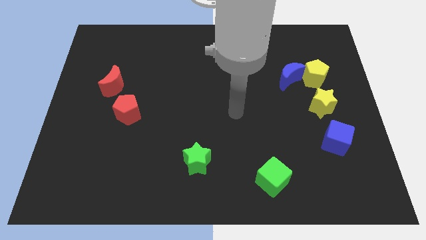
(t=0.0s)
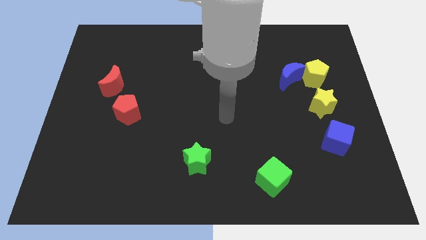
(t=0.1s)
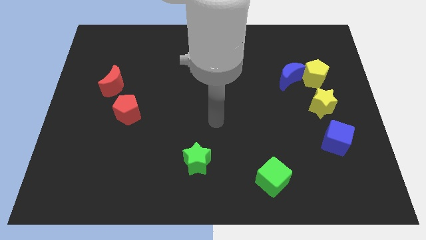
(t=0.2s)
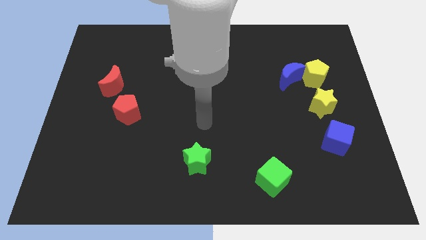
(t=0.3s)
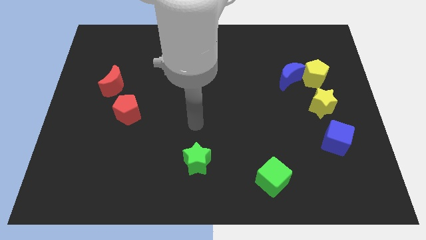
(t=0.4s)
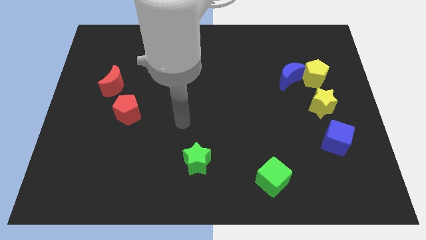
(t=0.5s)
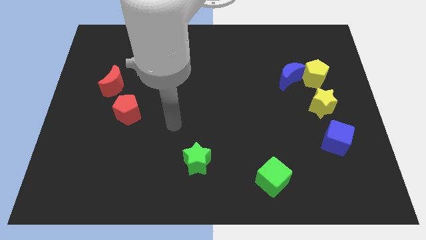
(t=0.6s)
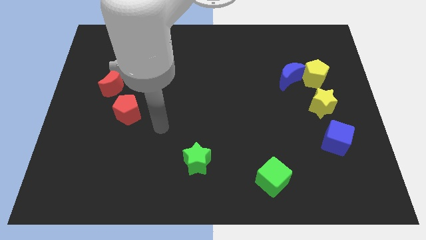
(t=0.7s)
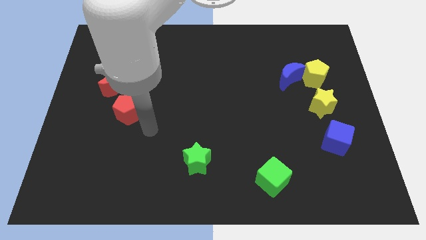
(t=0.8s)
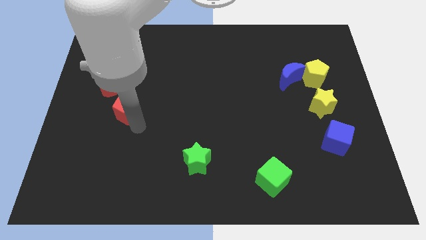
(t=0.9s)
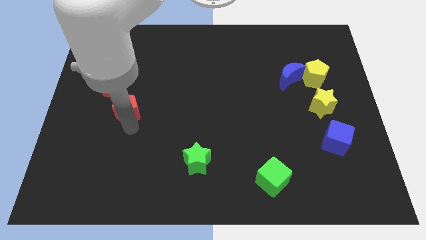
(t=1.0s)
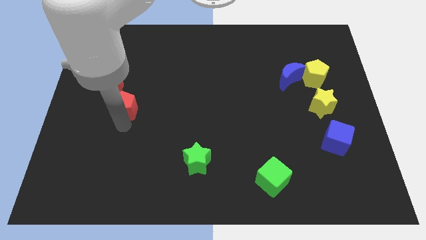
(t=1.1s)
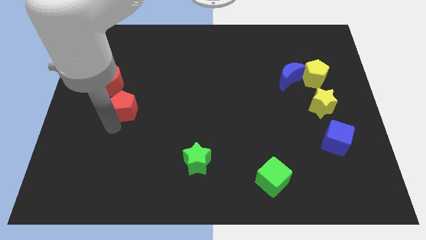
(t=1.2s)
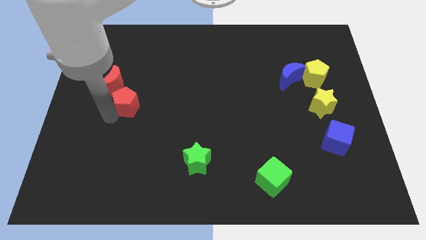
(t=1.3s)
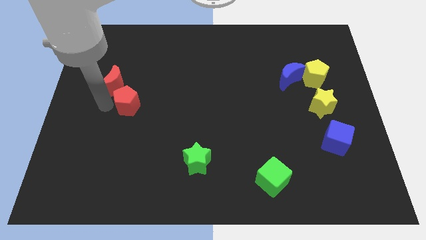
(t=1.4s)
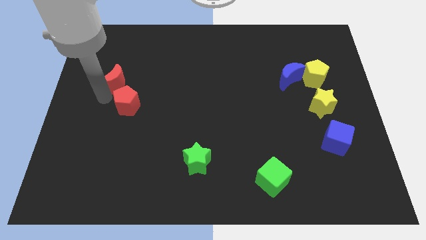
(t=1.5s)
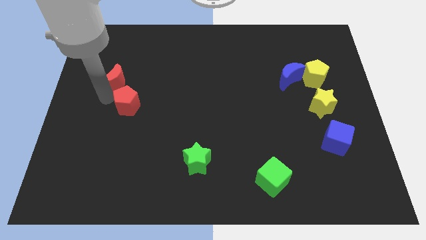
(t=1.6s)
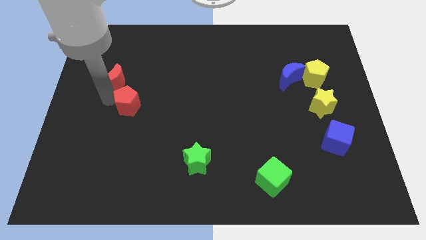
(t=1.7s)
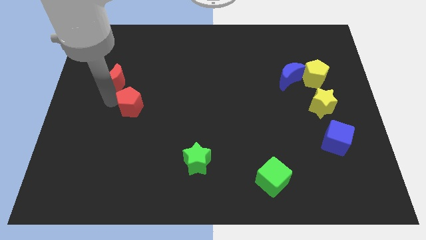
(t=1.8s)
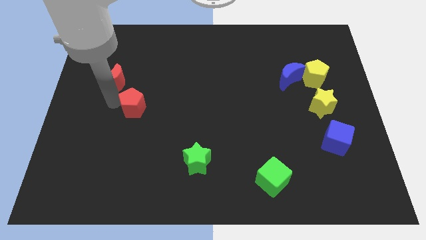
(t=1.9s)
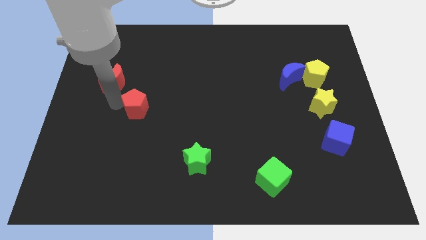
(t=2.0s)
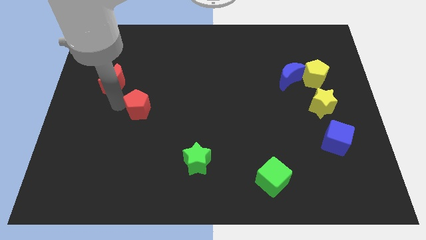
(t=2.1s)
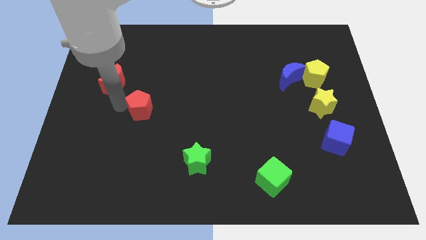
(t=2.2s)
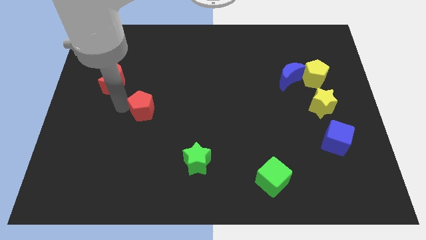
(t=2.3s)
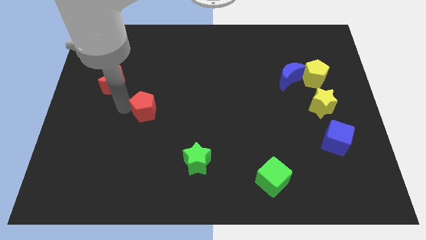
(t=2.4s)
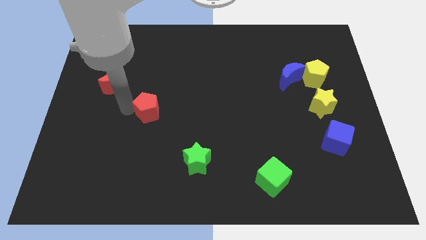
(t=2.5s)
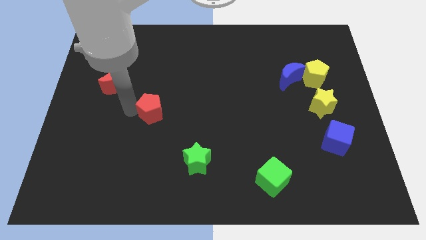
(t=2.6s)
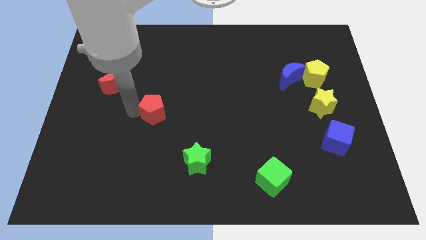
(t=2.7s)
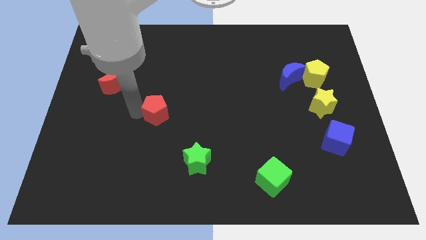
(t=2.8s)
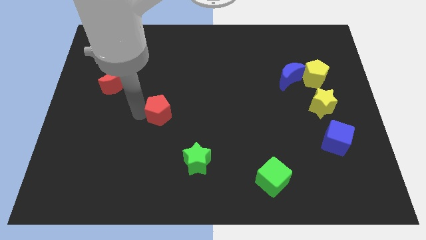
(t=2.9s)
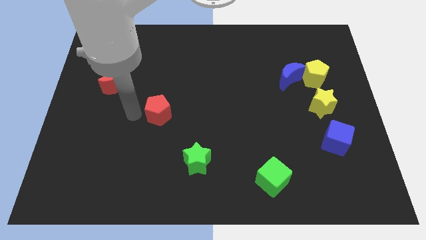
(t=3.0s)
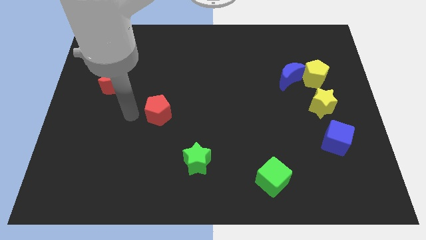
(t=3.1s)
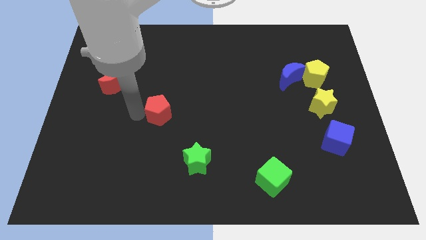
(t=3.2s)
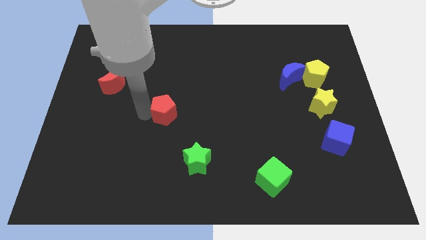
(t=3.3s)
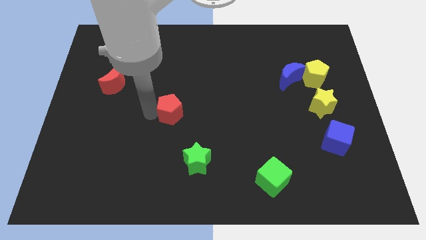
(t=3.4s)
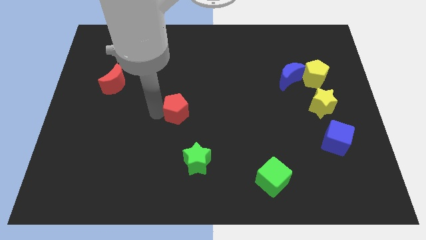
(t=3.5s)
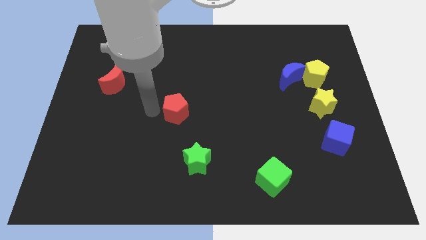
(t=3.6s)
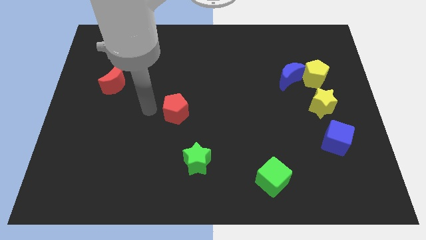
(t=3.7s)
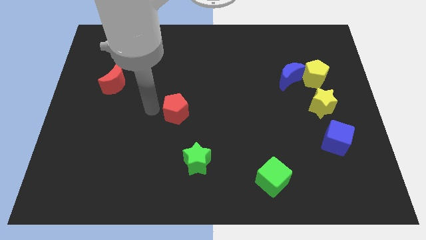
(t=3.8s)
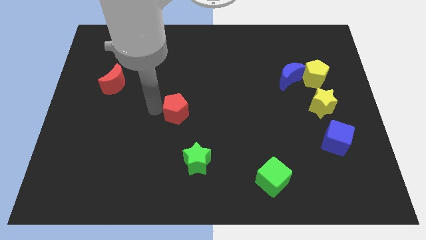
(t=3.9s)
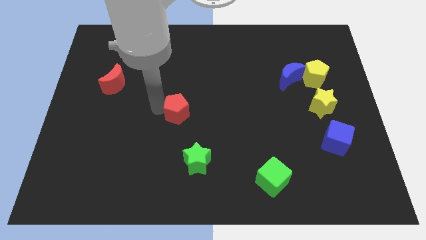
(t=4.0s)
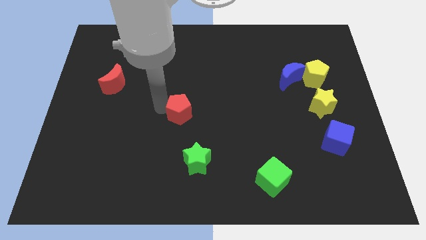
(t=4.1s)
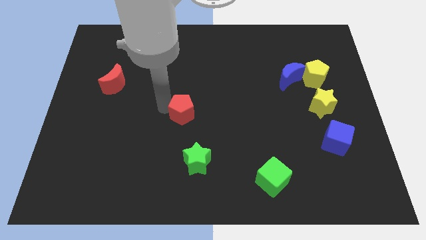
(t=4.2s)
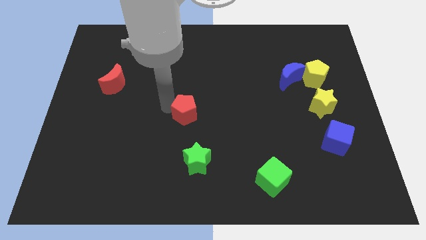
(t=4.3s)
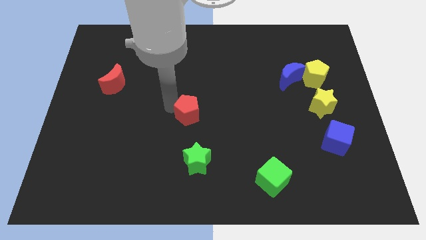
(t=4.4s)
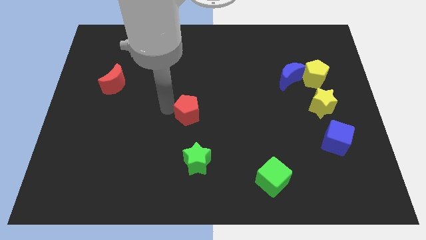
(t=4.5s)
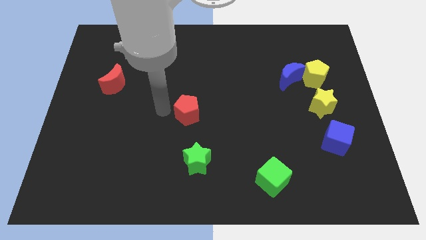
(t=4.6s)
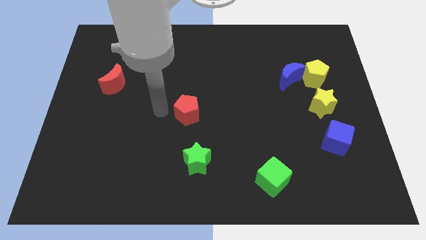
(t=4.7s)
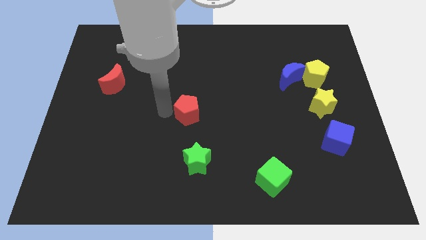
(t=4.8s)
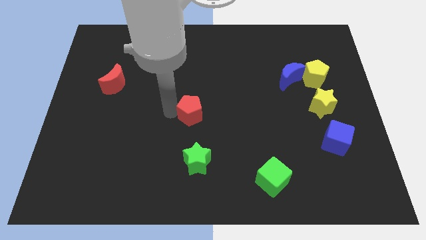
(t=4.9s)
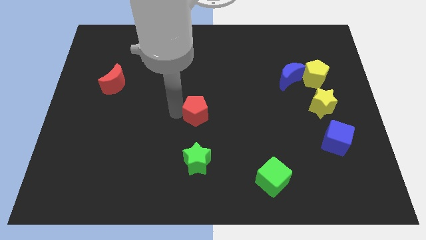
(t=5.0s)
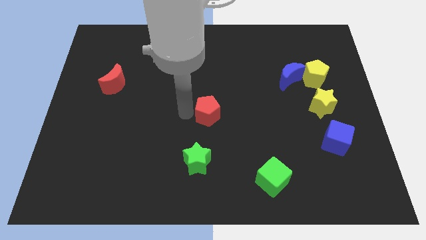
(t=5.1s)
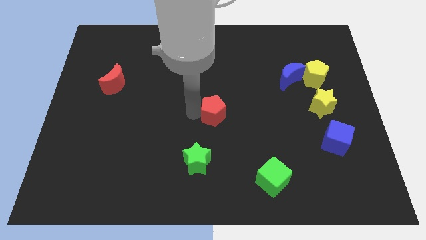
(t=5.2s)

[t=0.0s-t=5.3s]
move the red pentagon right

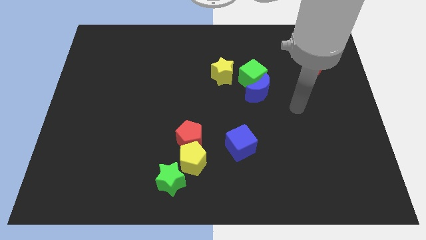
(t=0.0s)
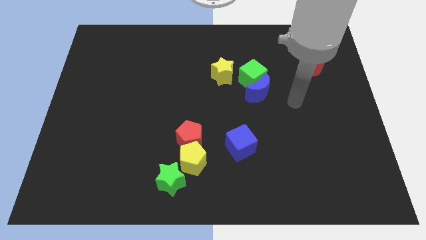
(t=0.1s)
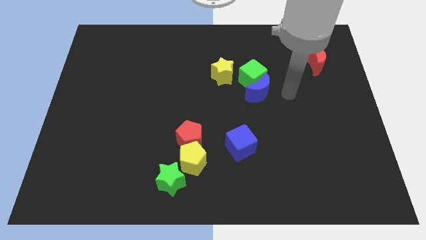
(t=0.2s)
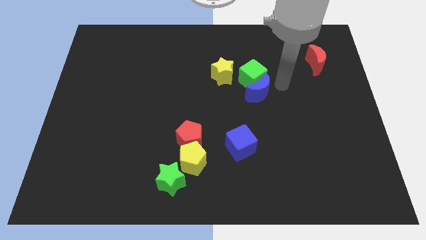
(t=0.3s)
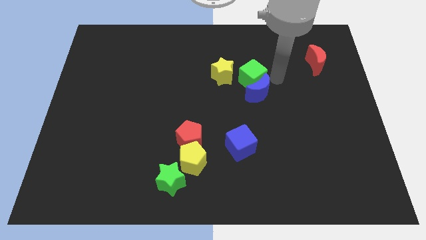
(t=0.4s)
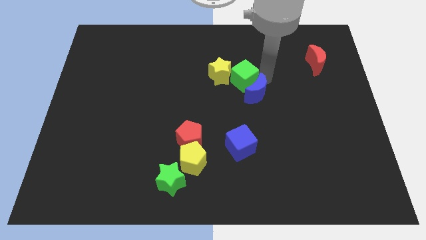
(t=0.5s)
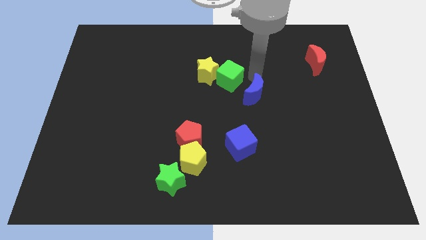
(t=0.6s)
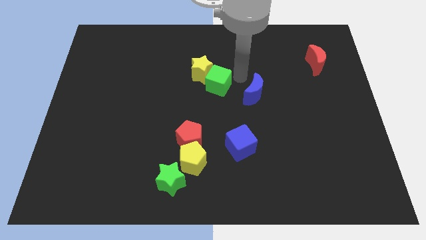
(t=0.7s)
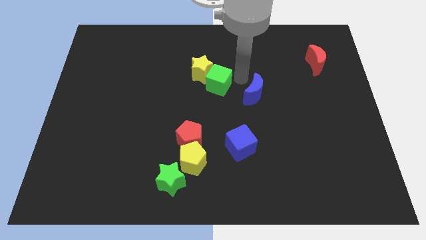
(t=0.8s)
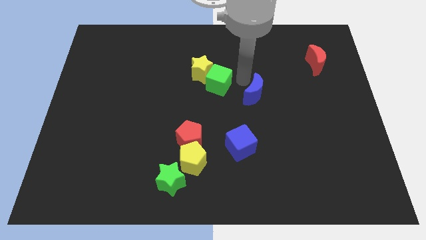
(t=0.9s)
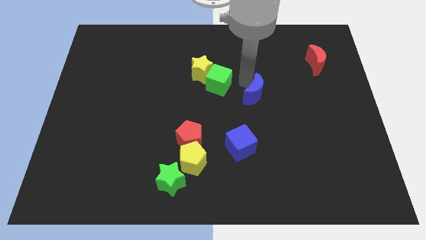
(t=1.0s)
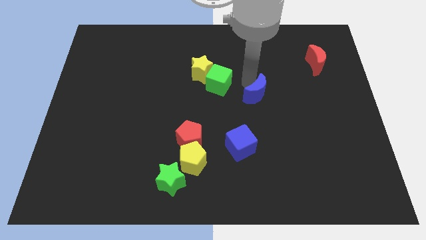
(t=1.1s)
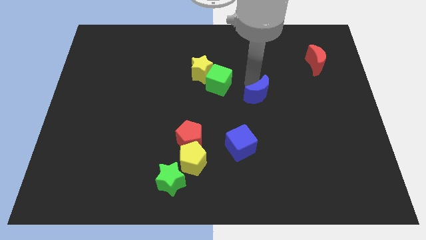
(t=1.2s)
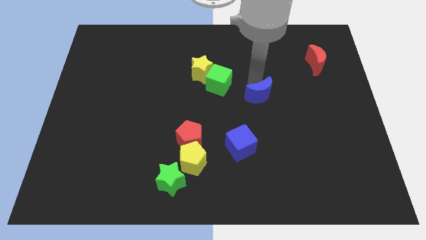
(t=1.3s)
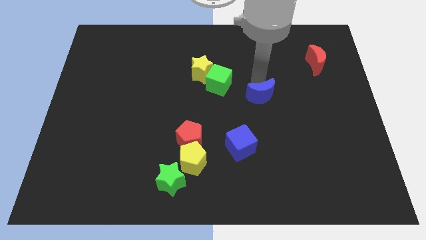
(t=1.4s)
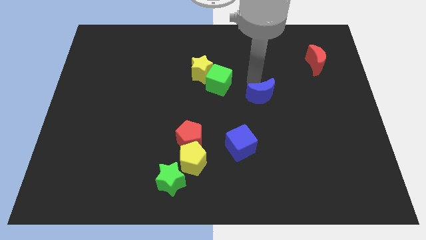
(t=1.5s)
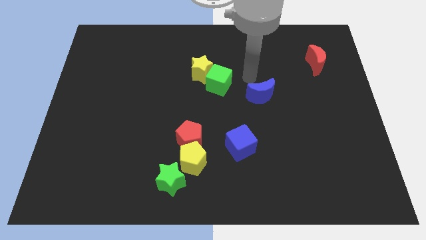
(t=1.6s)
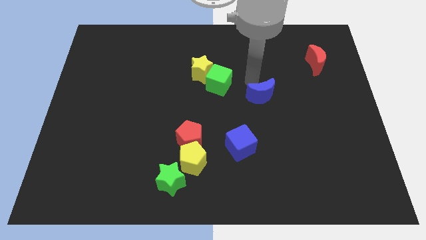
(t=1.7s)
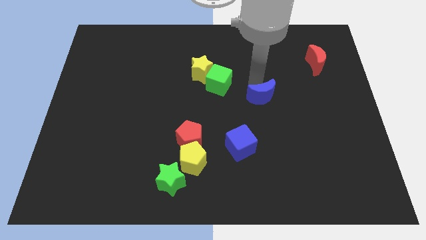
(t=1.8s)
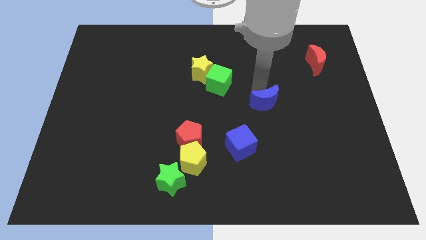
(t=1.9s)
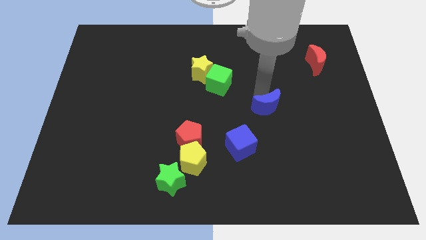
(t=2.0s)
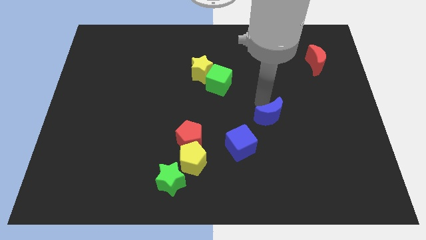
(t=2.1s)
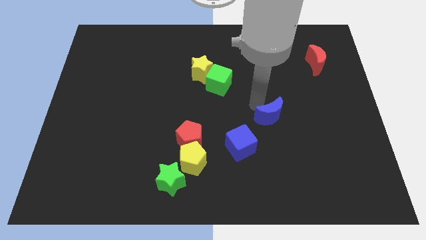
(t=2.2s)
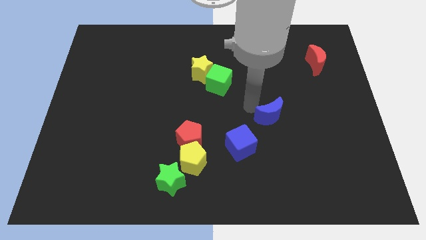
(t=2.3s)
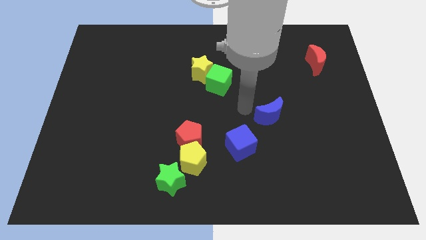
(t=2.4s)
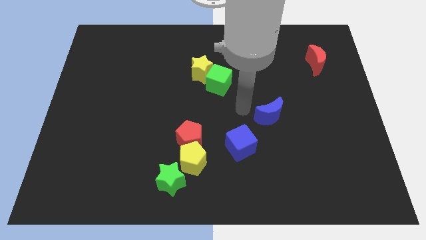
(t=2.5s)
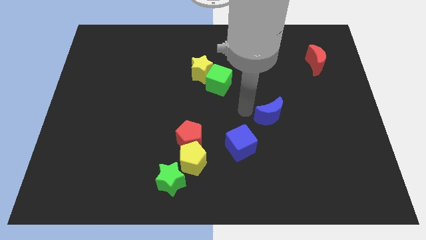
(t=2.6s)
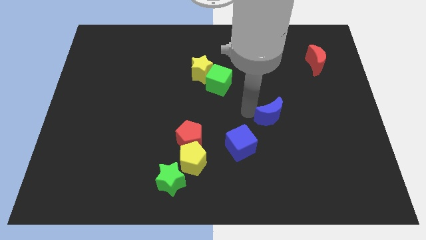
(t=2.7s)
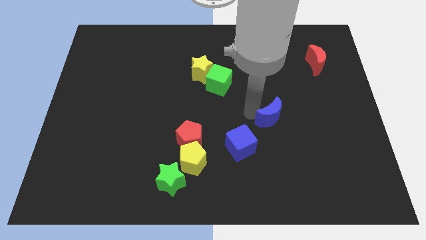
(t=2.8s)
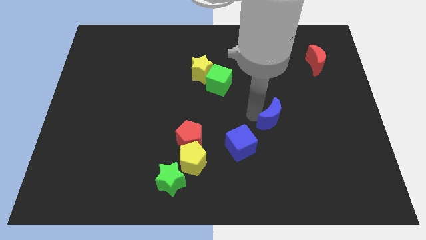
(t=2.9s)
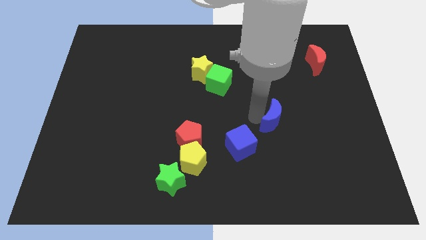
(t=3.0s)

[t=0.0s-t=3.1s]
move the blue moon somewhat diagonally down and to the right
